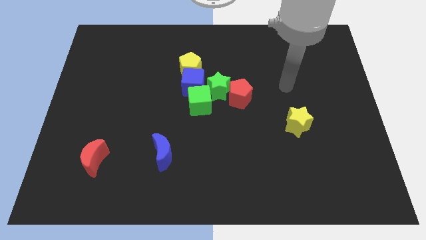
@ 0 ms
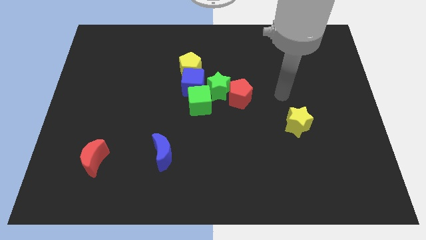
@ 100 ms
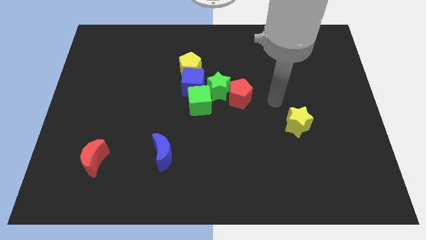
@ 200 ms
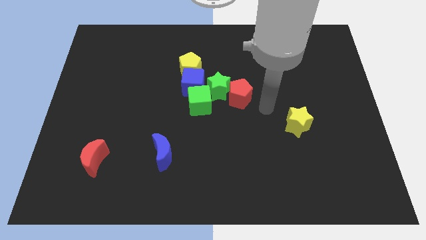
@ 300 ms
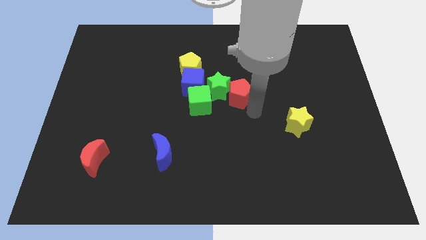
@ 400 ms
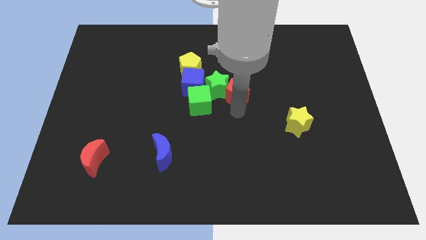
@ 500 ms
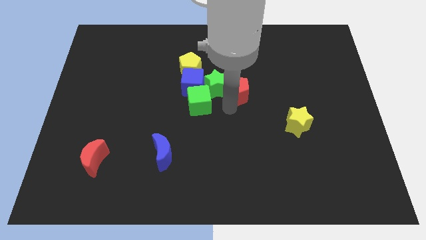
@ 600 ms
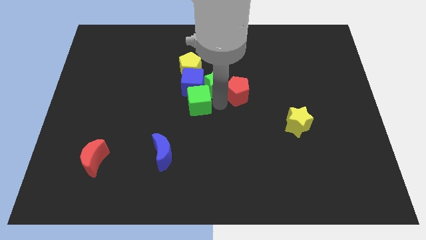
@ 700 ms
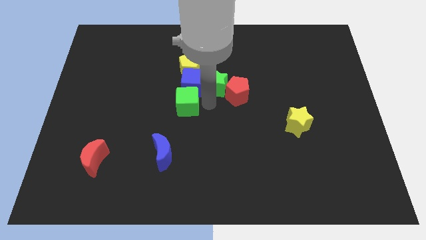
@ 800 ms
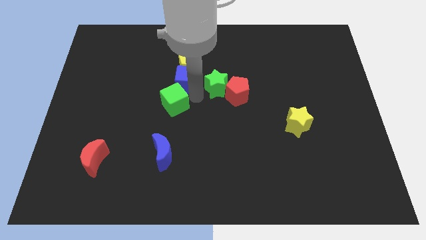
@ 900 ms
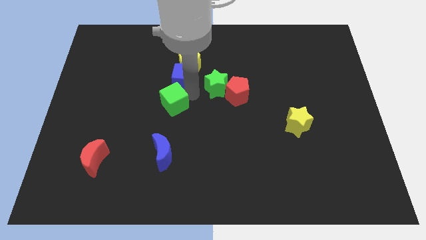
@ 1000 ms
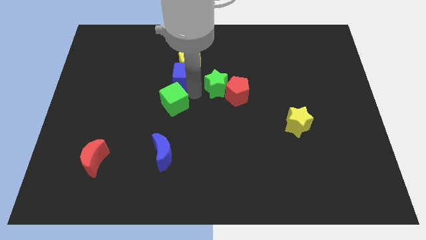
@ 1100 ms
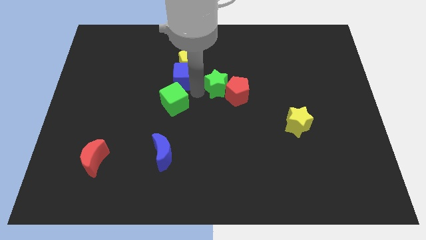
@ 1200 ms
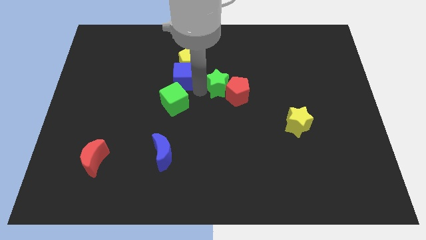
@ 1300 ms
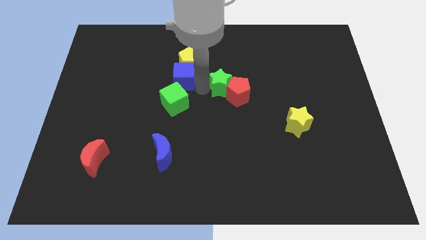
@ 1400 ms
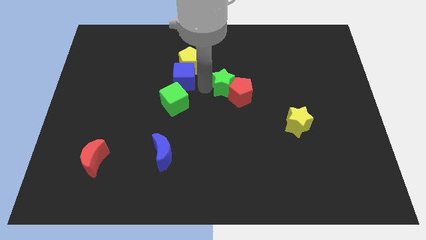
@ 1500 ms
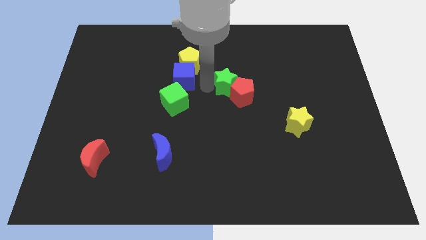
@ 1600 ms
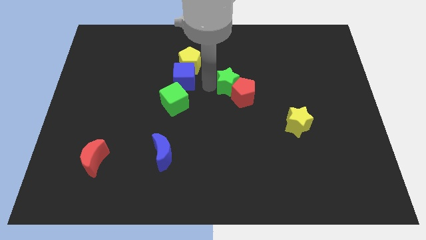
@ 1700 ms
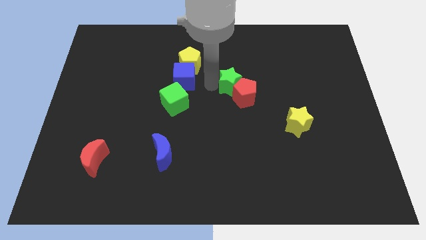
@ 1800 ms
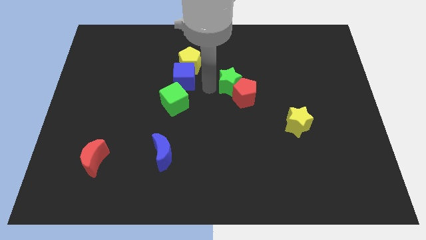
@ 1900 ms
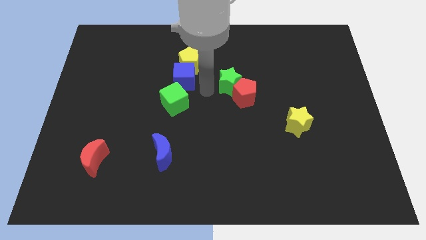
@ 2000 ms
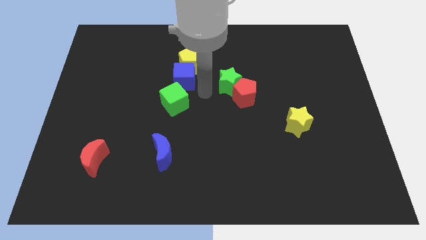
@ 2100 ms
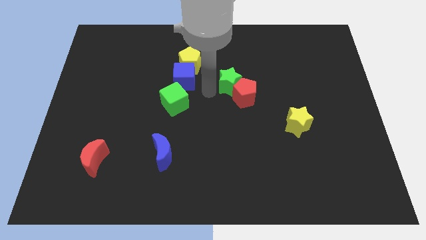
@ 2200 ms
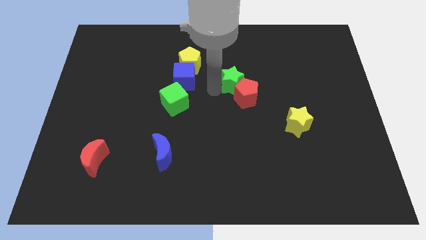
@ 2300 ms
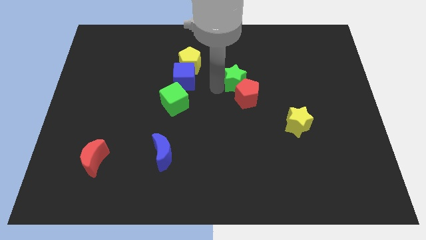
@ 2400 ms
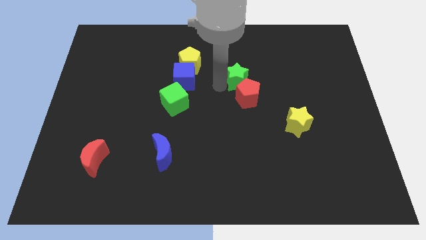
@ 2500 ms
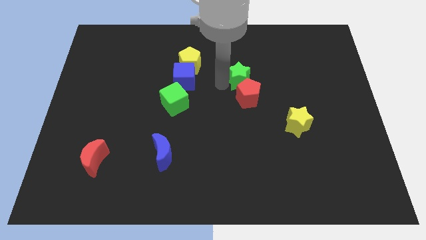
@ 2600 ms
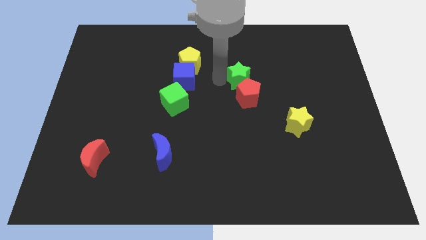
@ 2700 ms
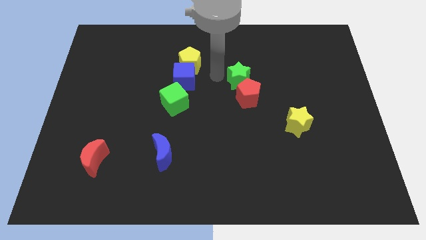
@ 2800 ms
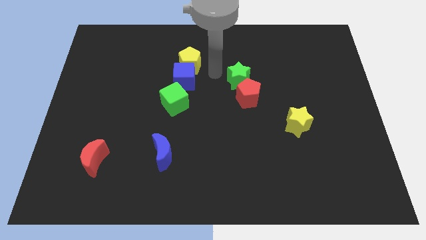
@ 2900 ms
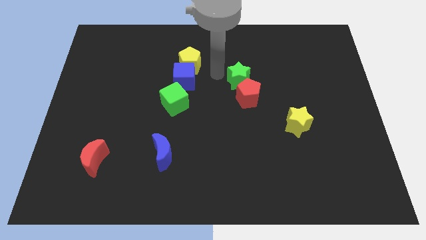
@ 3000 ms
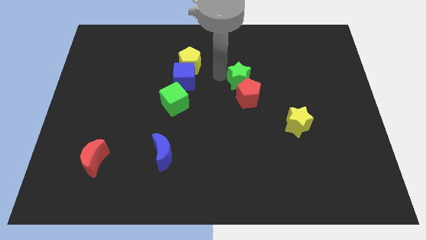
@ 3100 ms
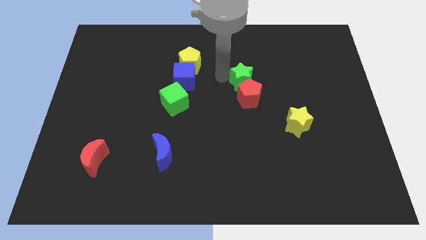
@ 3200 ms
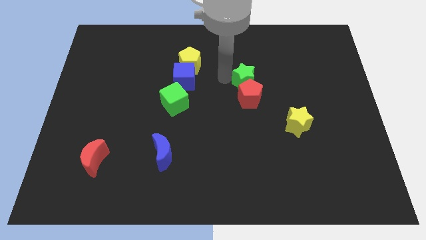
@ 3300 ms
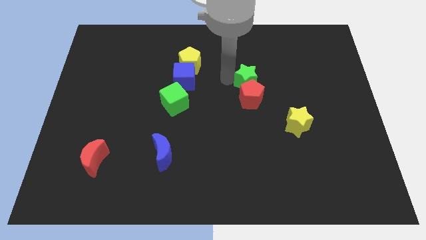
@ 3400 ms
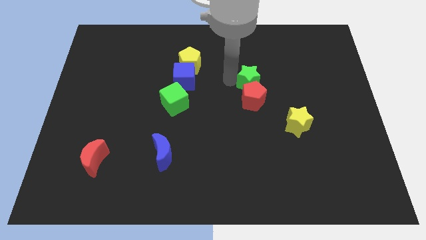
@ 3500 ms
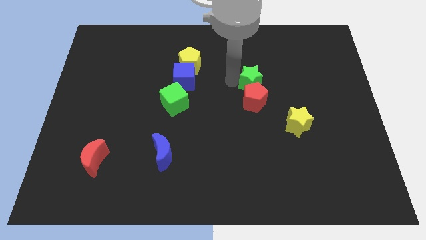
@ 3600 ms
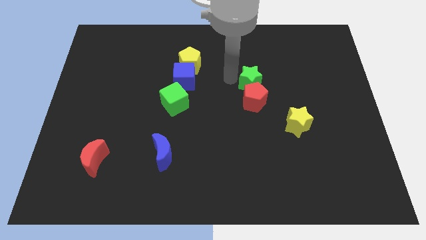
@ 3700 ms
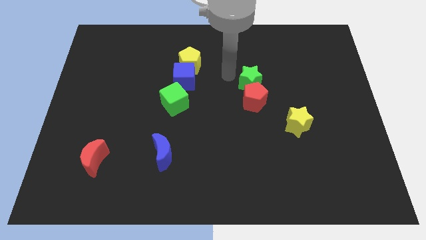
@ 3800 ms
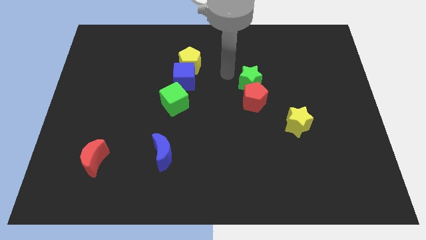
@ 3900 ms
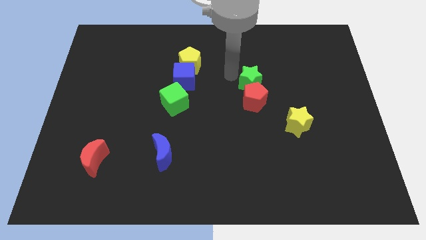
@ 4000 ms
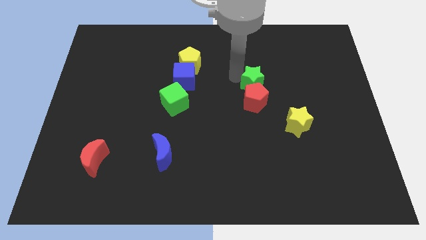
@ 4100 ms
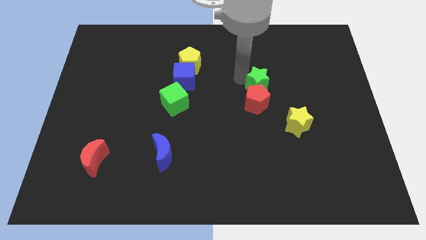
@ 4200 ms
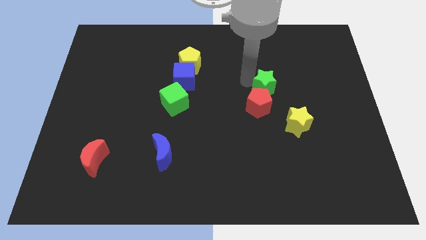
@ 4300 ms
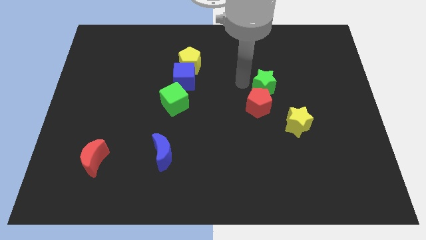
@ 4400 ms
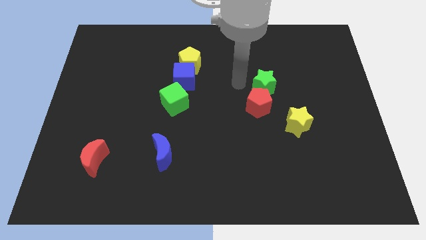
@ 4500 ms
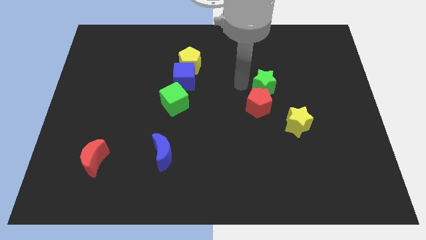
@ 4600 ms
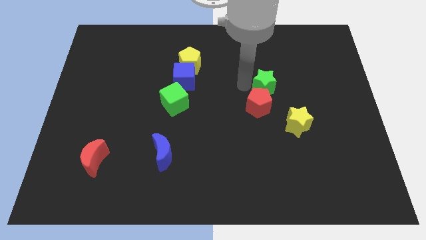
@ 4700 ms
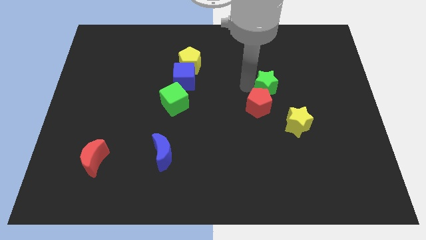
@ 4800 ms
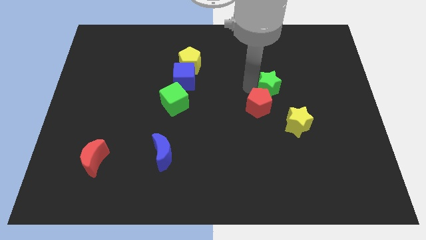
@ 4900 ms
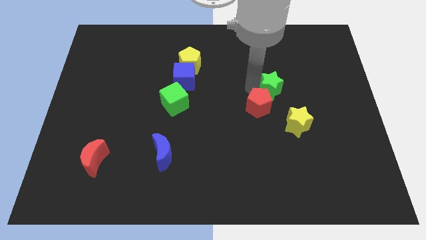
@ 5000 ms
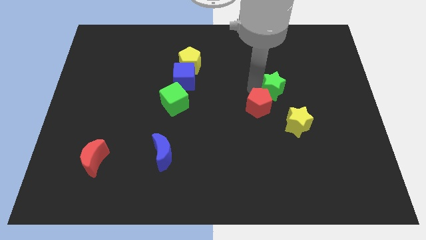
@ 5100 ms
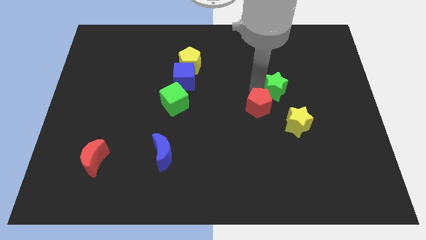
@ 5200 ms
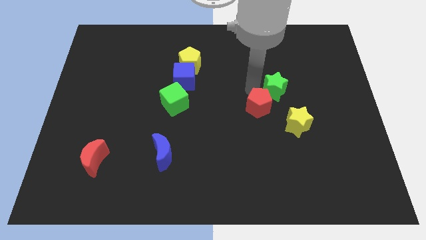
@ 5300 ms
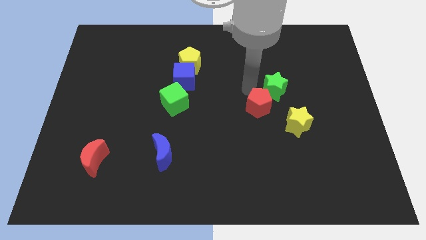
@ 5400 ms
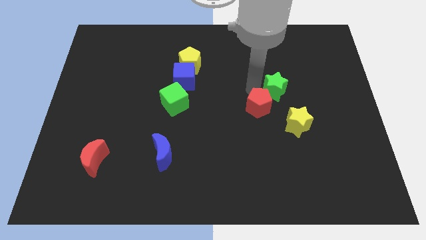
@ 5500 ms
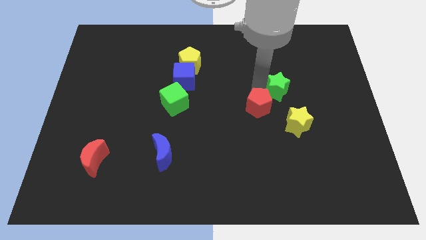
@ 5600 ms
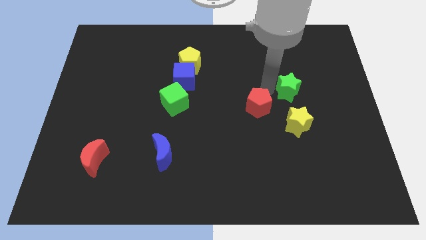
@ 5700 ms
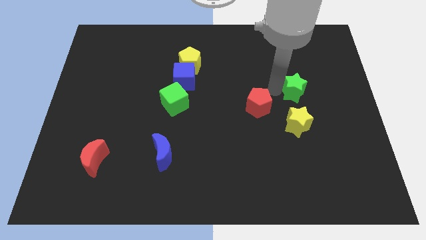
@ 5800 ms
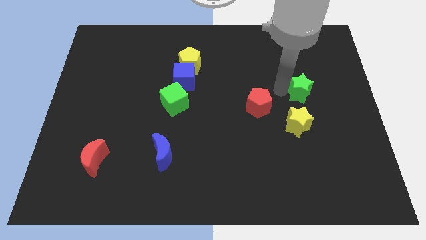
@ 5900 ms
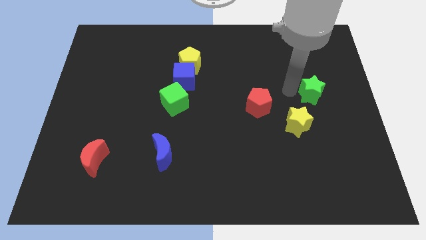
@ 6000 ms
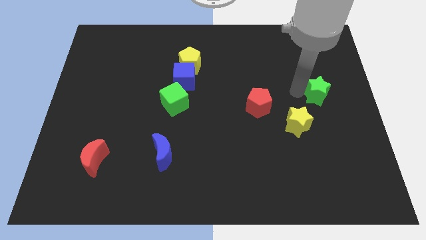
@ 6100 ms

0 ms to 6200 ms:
put the green star to the right side

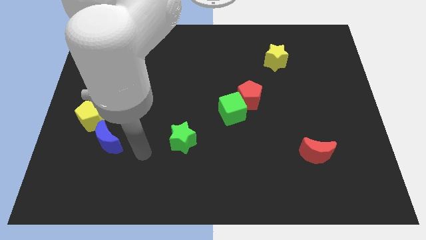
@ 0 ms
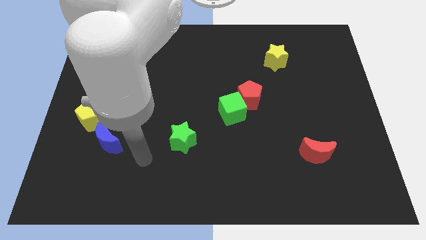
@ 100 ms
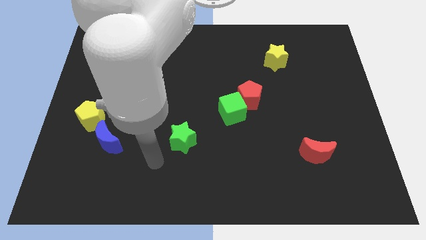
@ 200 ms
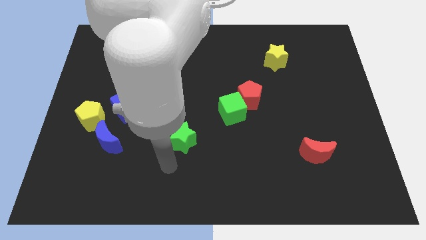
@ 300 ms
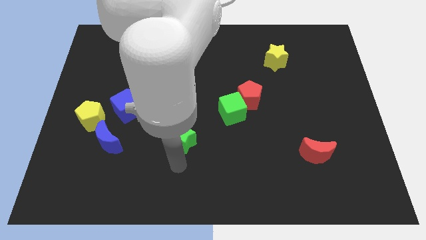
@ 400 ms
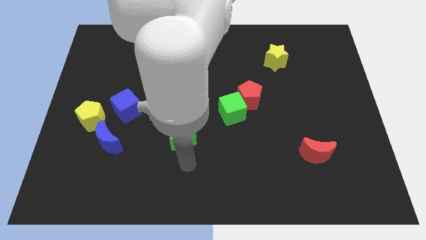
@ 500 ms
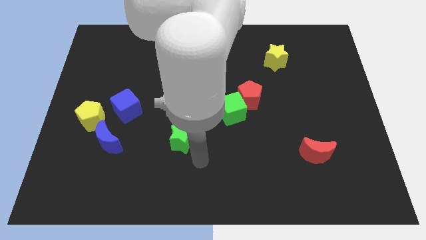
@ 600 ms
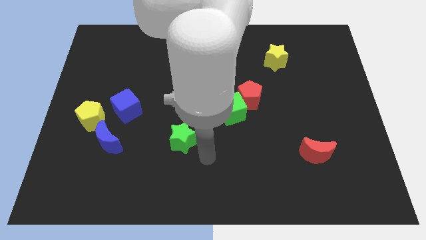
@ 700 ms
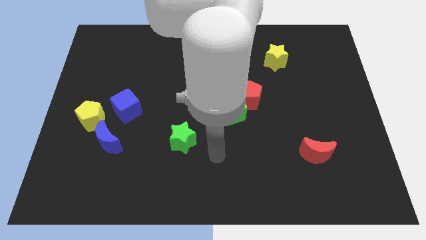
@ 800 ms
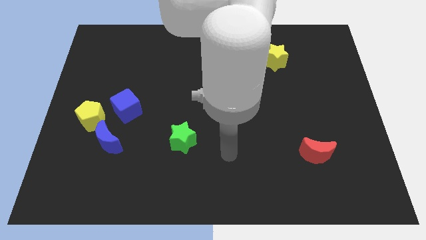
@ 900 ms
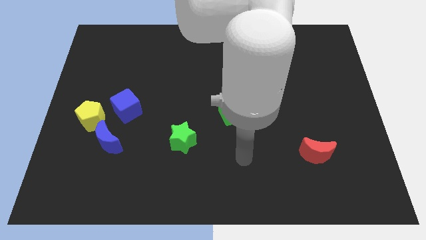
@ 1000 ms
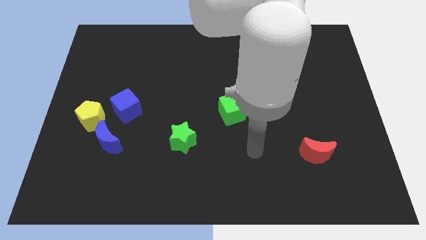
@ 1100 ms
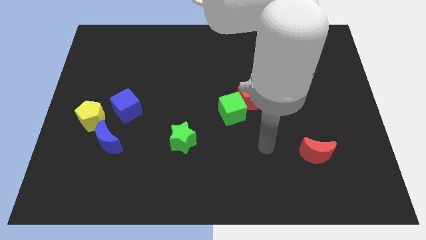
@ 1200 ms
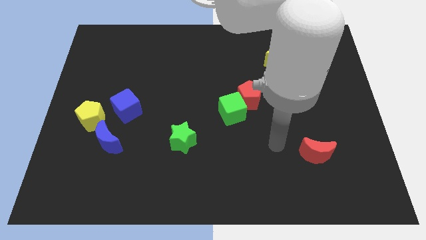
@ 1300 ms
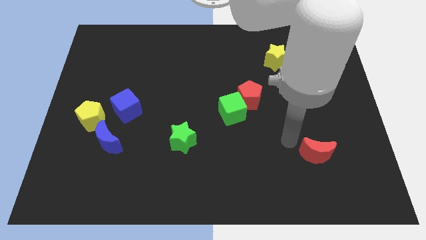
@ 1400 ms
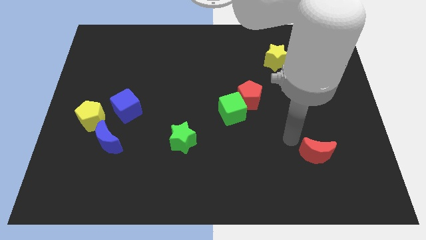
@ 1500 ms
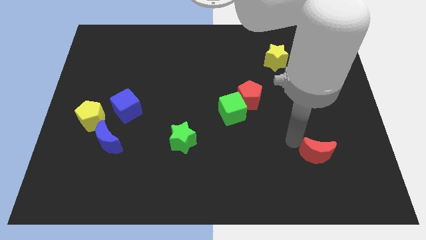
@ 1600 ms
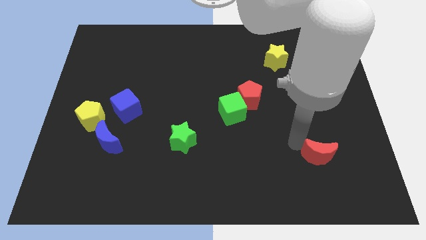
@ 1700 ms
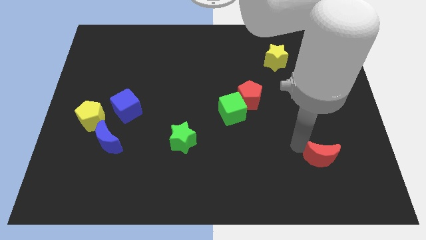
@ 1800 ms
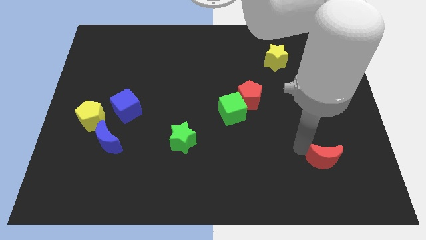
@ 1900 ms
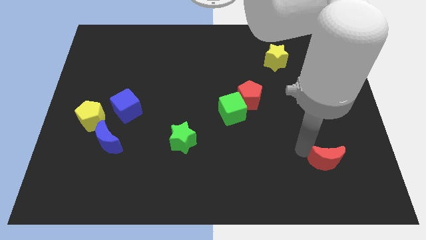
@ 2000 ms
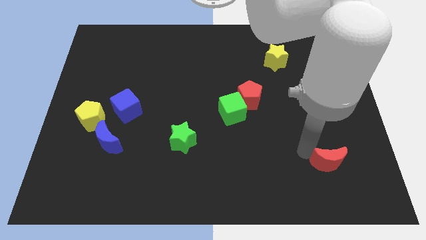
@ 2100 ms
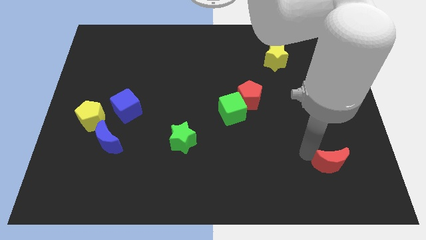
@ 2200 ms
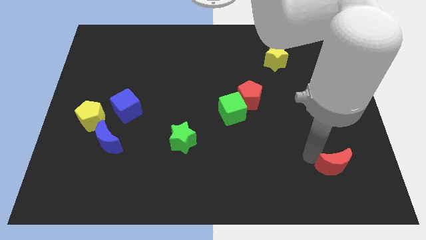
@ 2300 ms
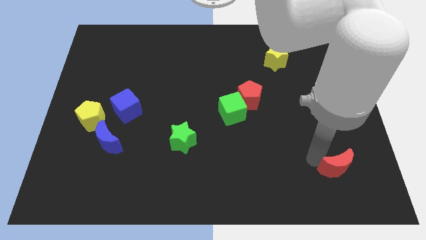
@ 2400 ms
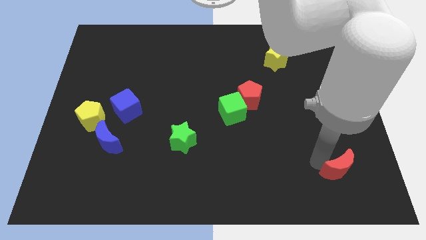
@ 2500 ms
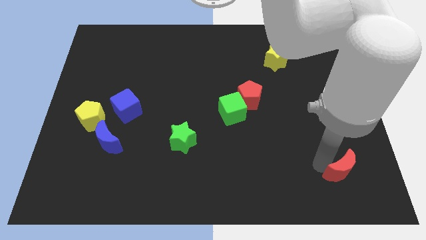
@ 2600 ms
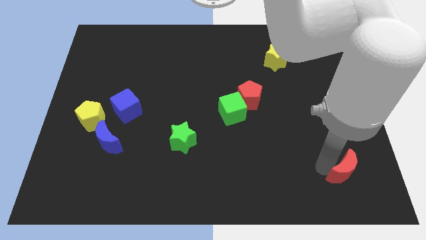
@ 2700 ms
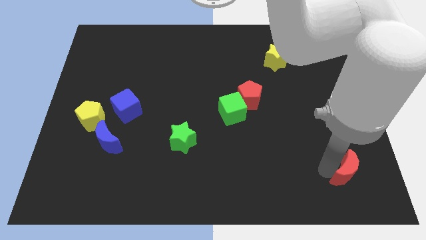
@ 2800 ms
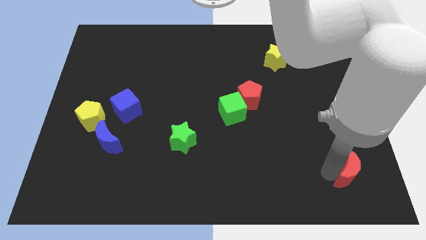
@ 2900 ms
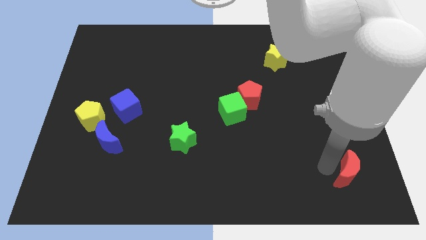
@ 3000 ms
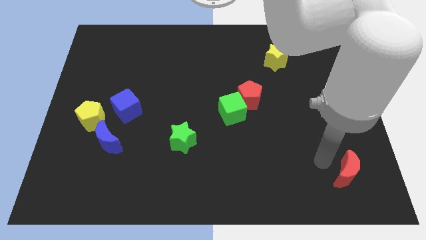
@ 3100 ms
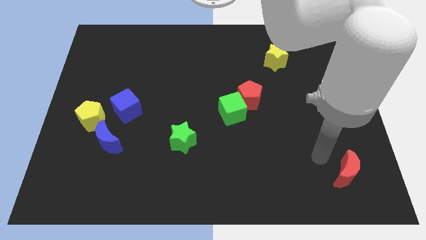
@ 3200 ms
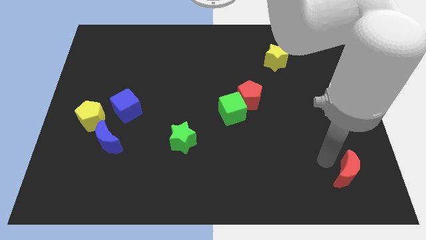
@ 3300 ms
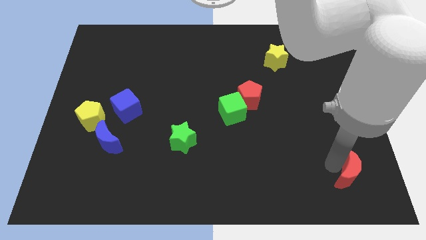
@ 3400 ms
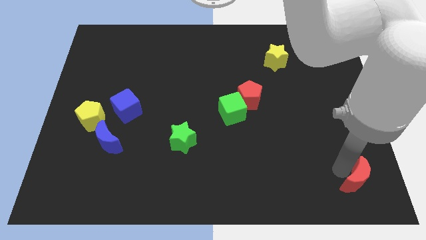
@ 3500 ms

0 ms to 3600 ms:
slide the red moon to the lower right corner
